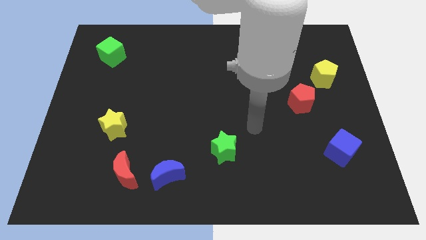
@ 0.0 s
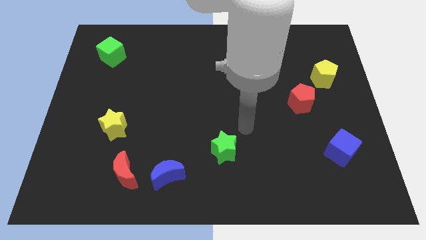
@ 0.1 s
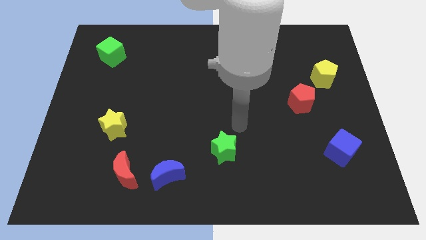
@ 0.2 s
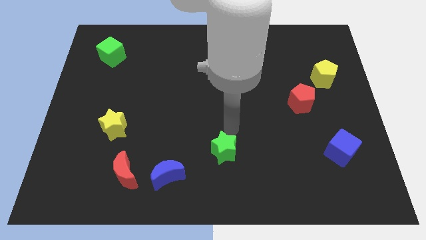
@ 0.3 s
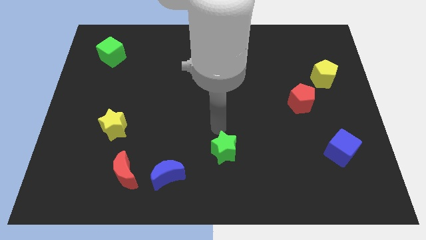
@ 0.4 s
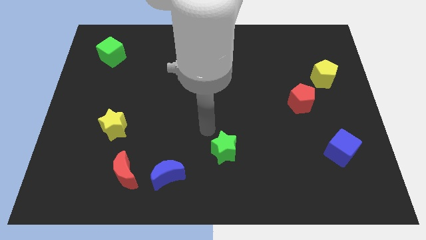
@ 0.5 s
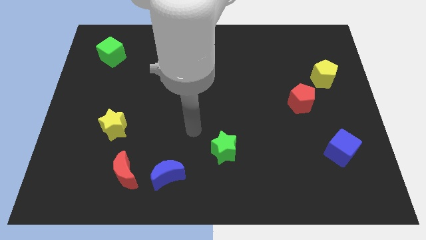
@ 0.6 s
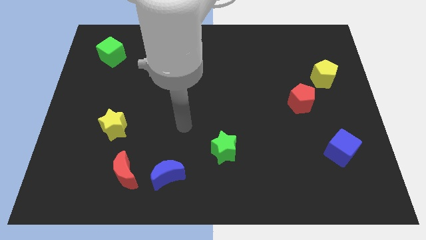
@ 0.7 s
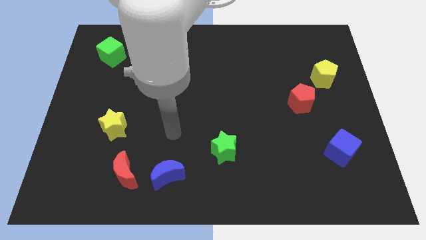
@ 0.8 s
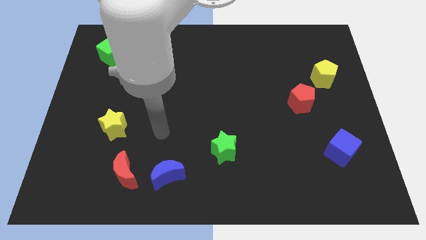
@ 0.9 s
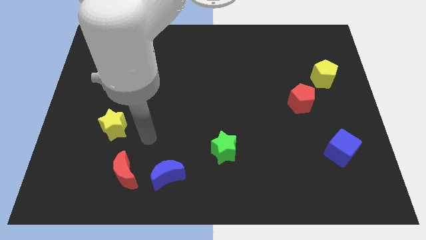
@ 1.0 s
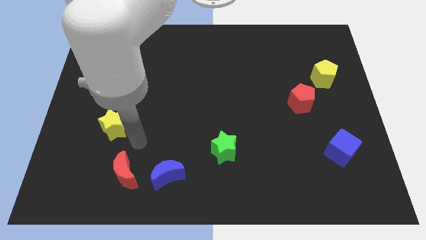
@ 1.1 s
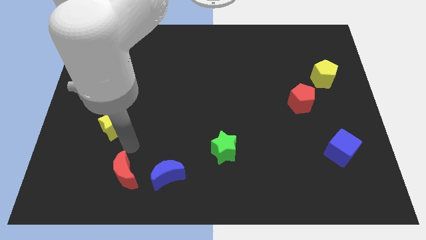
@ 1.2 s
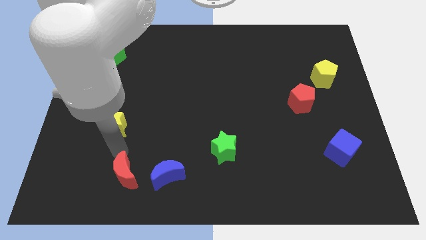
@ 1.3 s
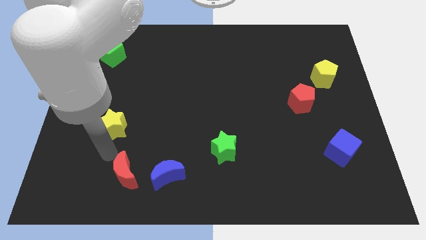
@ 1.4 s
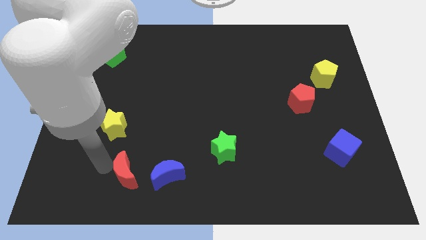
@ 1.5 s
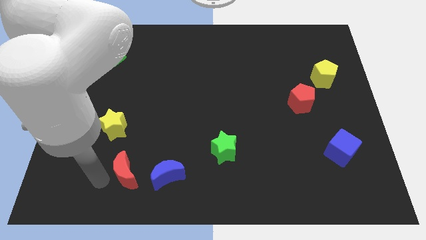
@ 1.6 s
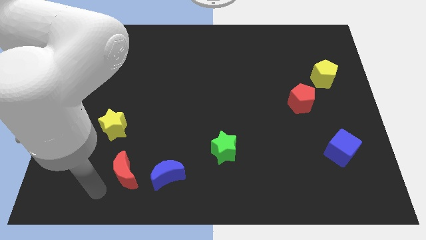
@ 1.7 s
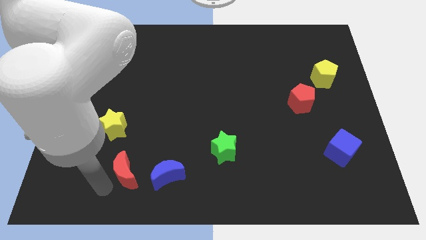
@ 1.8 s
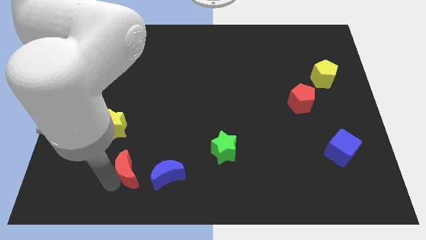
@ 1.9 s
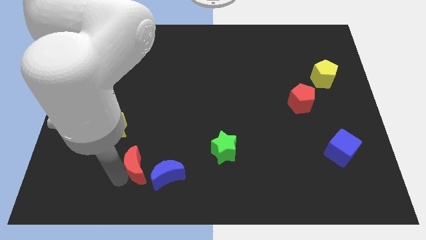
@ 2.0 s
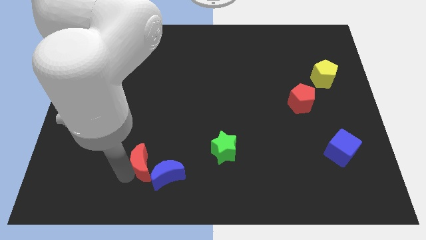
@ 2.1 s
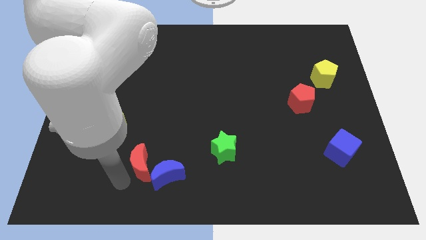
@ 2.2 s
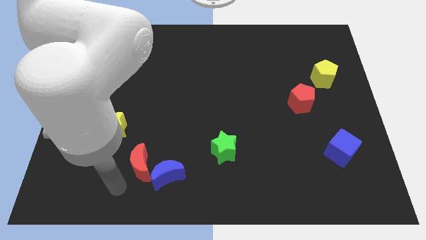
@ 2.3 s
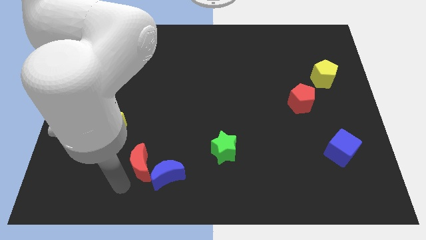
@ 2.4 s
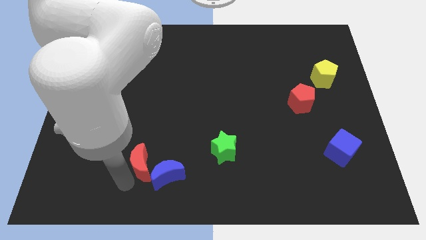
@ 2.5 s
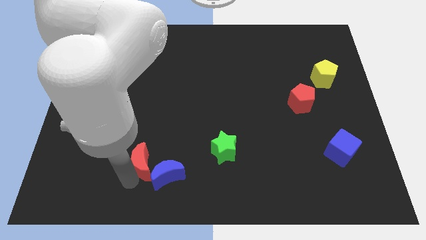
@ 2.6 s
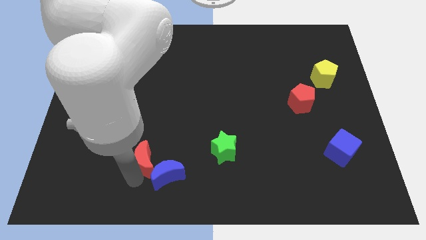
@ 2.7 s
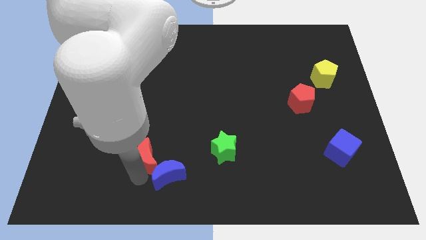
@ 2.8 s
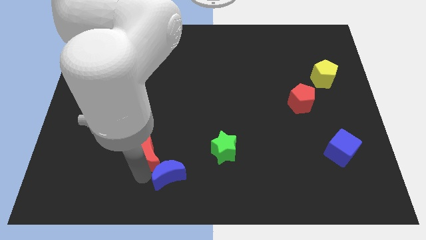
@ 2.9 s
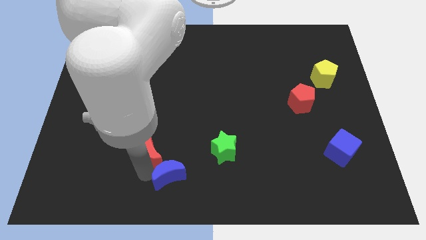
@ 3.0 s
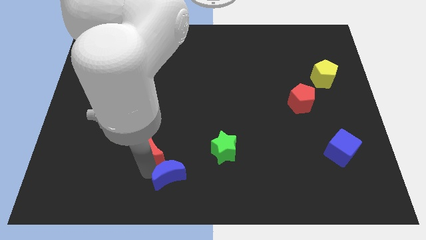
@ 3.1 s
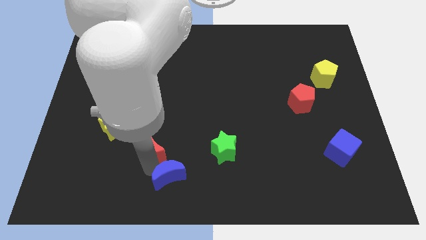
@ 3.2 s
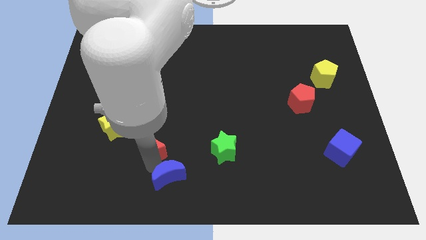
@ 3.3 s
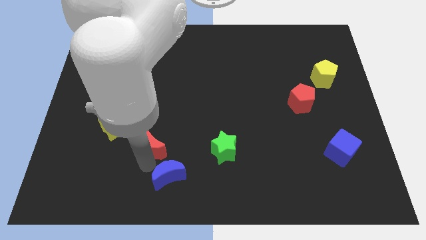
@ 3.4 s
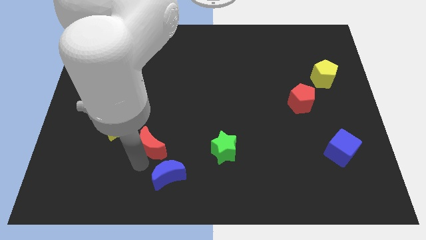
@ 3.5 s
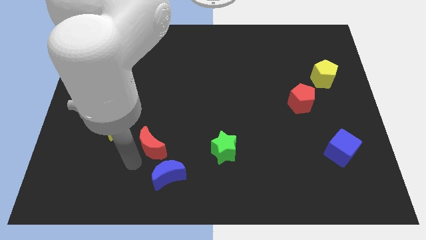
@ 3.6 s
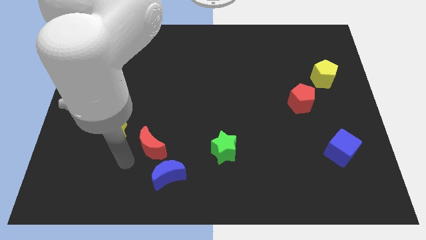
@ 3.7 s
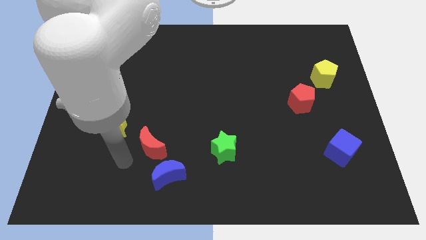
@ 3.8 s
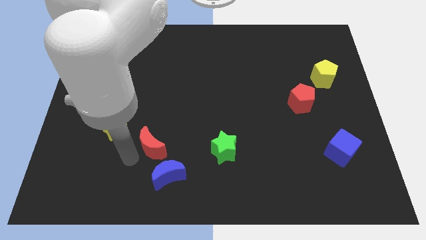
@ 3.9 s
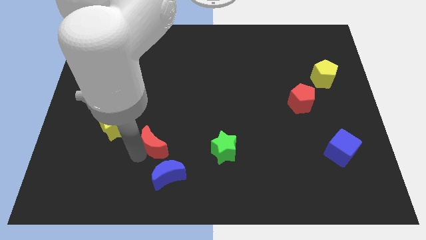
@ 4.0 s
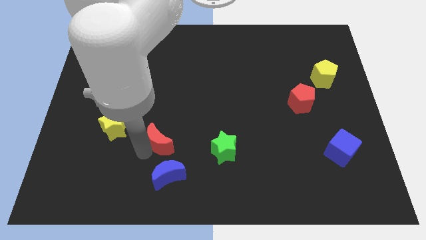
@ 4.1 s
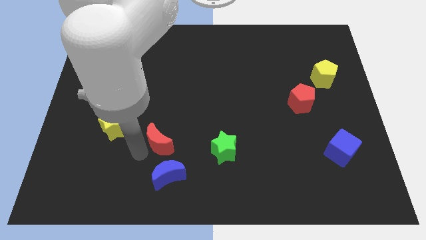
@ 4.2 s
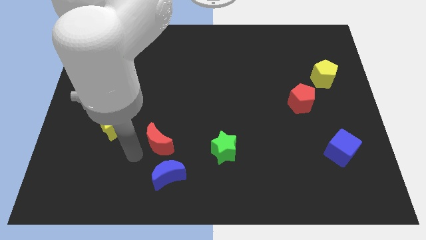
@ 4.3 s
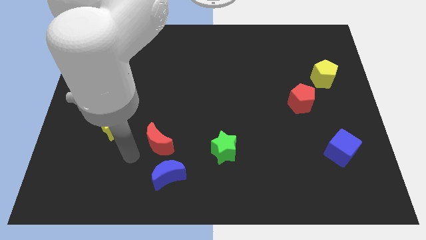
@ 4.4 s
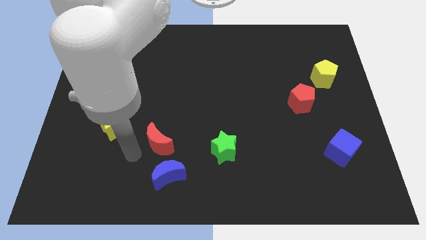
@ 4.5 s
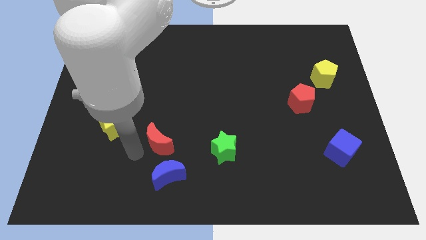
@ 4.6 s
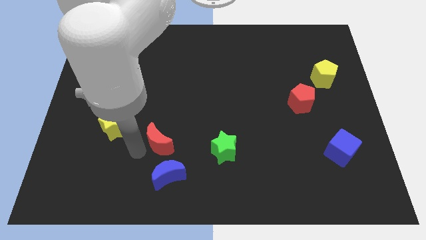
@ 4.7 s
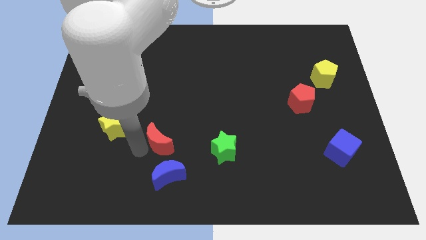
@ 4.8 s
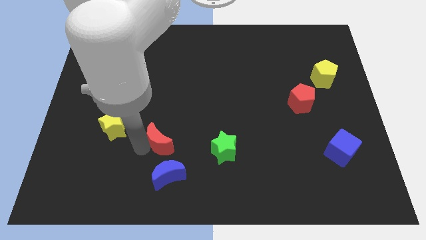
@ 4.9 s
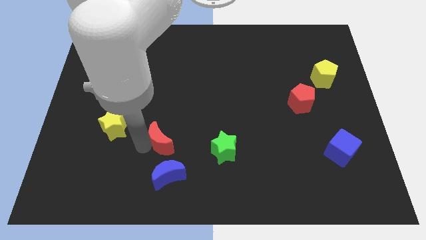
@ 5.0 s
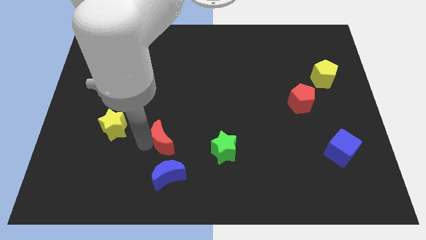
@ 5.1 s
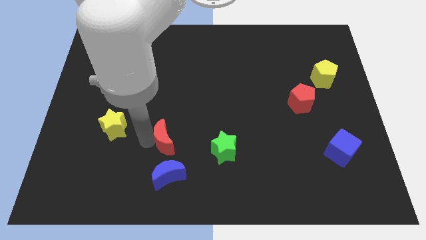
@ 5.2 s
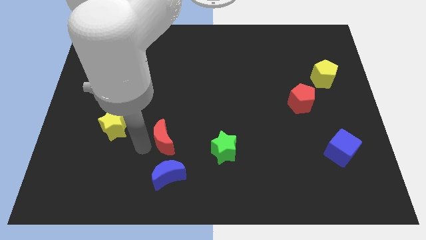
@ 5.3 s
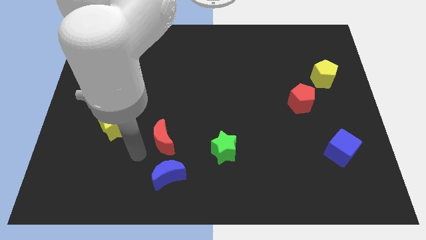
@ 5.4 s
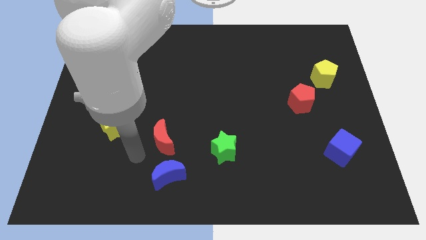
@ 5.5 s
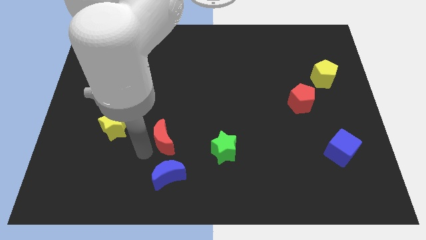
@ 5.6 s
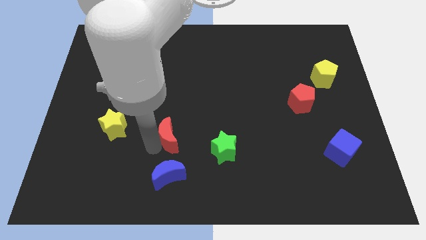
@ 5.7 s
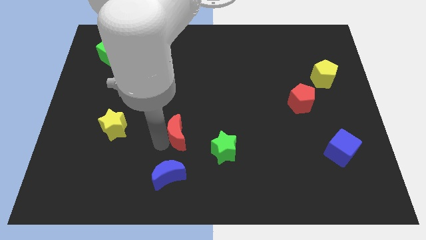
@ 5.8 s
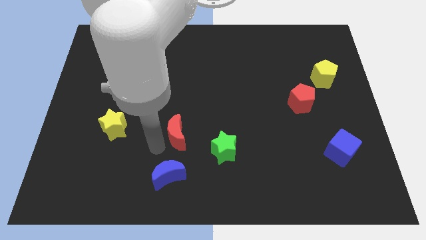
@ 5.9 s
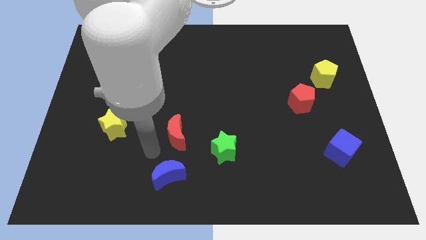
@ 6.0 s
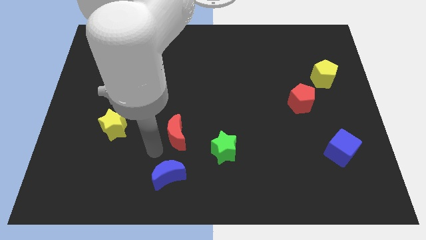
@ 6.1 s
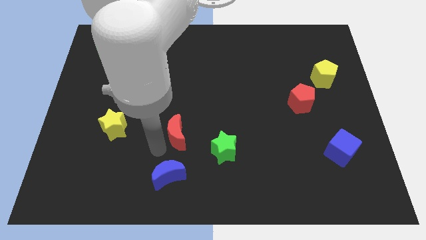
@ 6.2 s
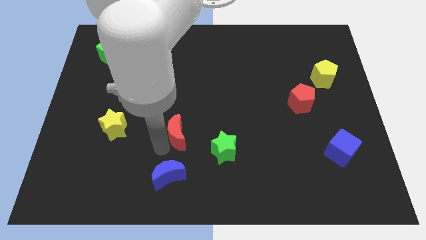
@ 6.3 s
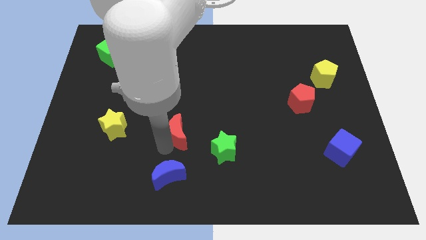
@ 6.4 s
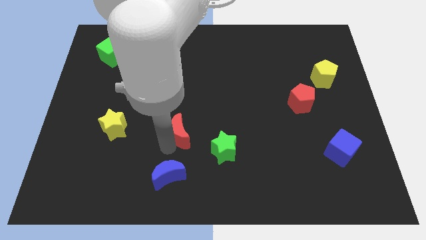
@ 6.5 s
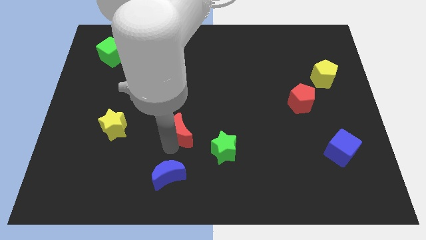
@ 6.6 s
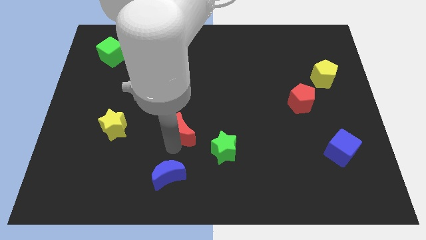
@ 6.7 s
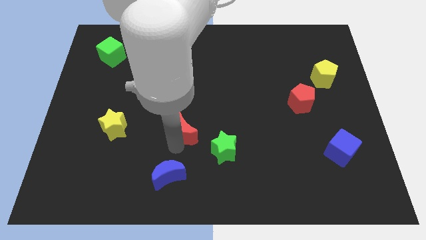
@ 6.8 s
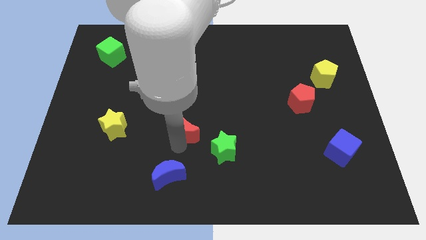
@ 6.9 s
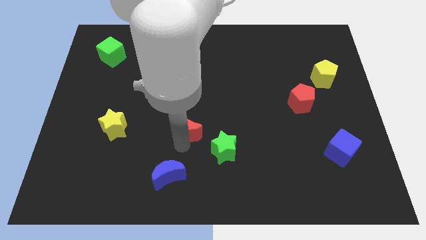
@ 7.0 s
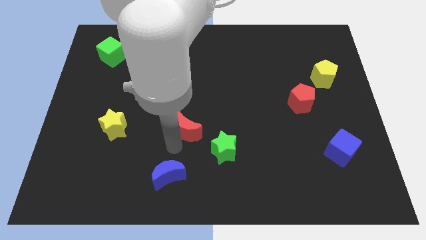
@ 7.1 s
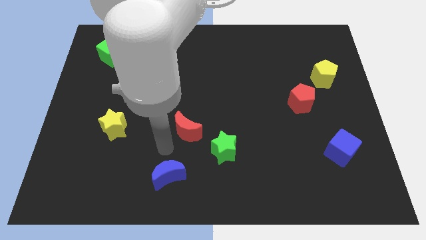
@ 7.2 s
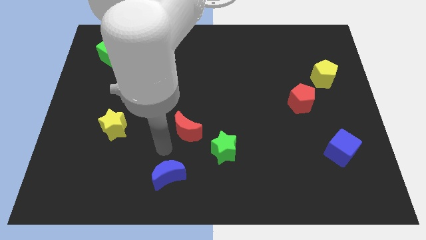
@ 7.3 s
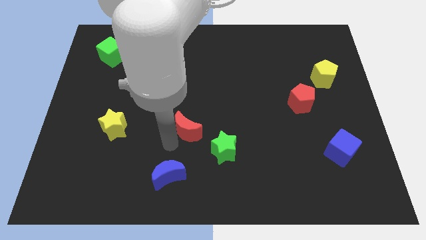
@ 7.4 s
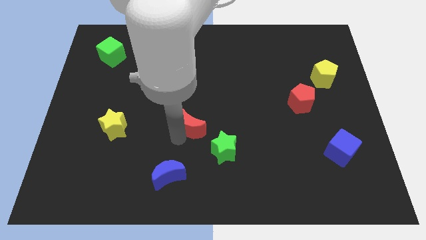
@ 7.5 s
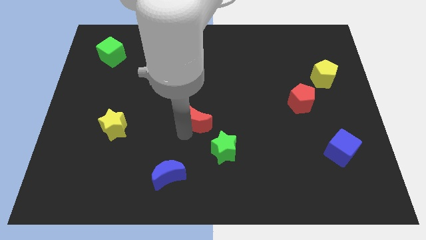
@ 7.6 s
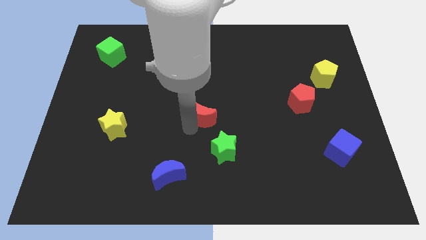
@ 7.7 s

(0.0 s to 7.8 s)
push the red moon up and to the right diagonally

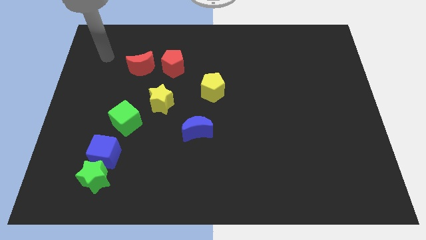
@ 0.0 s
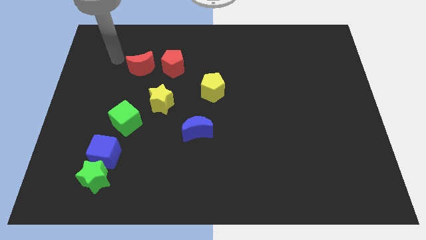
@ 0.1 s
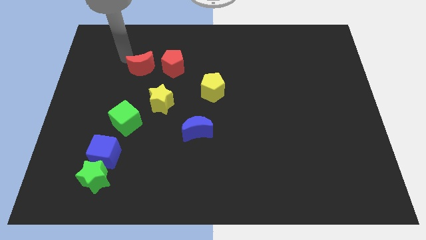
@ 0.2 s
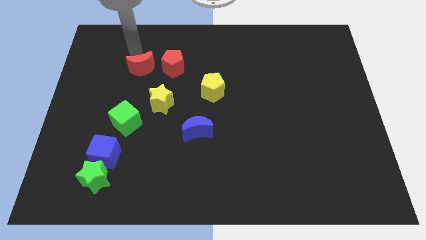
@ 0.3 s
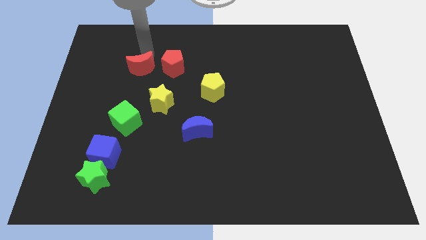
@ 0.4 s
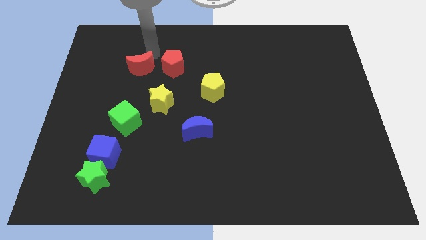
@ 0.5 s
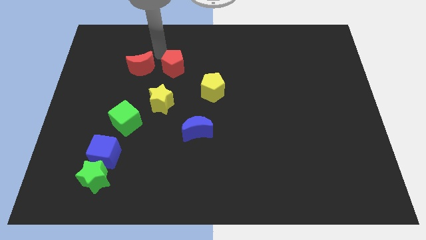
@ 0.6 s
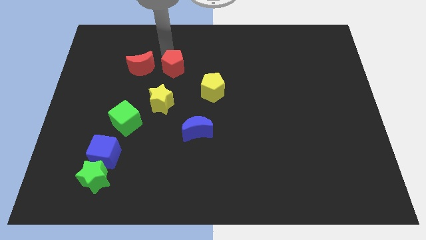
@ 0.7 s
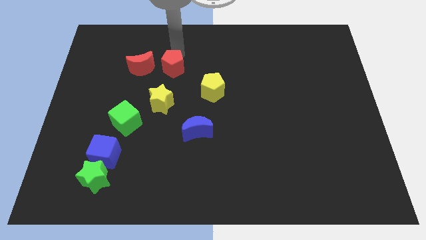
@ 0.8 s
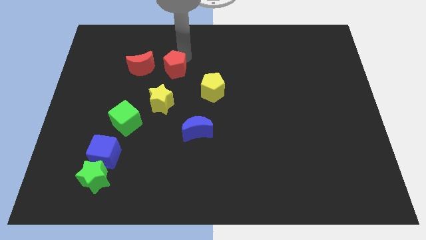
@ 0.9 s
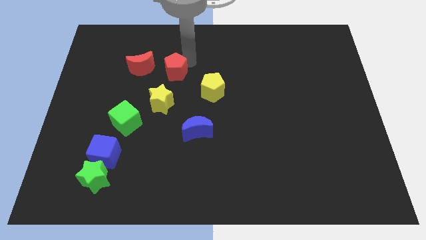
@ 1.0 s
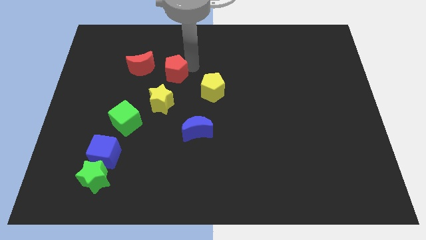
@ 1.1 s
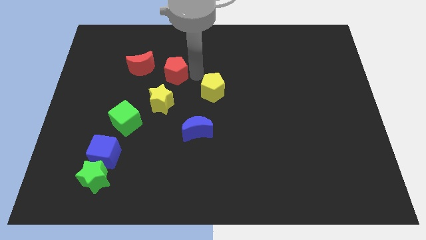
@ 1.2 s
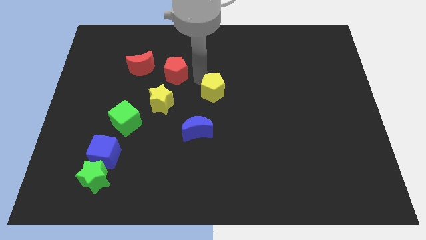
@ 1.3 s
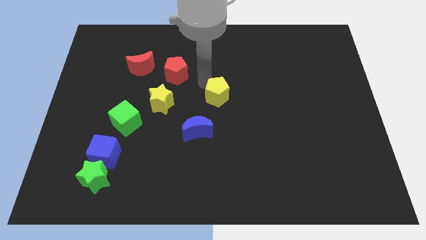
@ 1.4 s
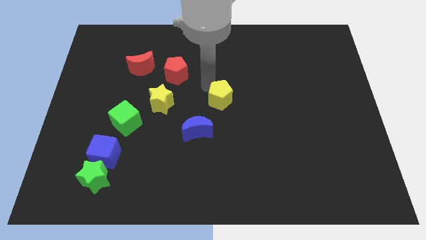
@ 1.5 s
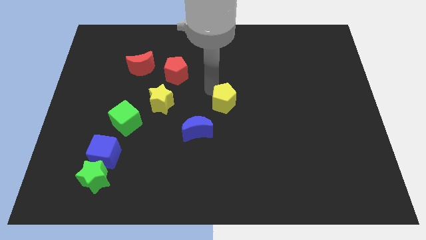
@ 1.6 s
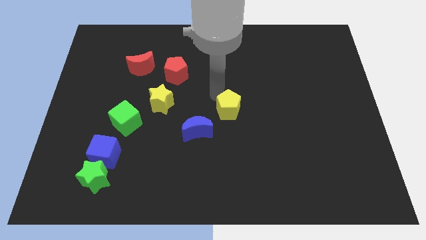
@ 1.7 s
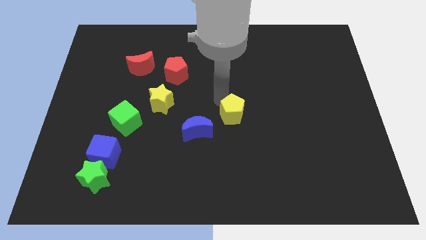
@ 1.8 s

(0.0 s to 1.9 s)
slide the yellow pentagon down and to the right slightly
